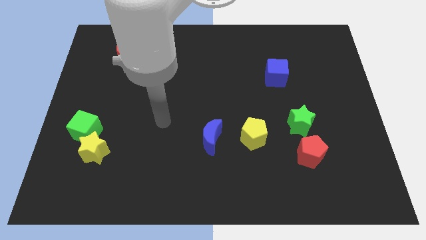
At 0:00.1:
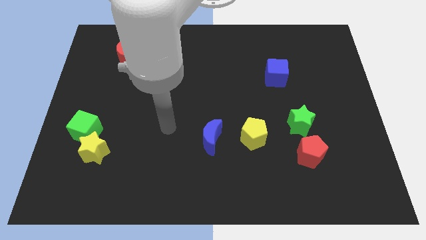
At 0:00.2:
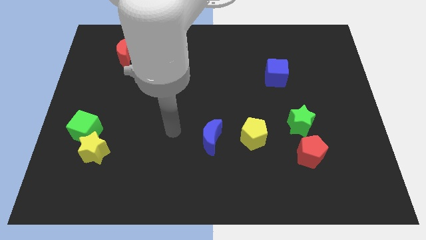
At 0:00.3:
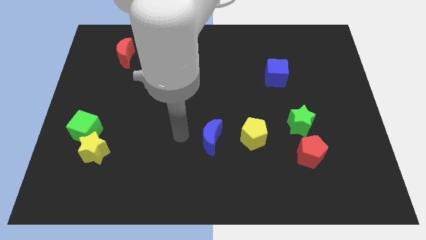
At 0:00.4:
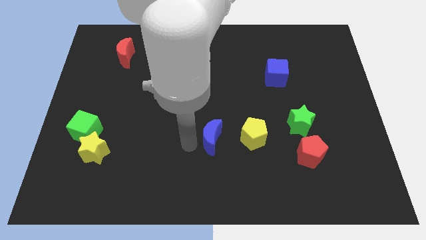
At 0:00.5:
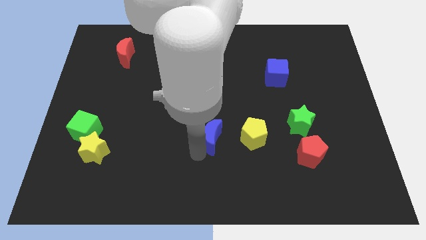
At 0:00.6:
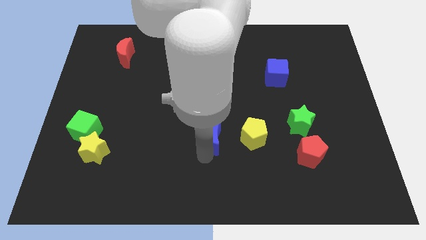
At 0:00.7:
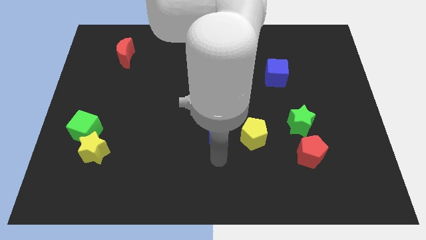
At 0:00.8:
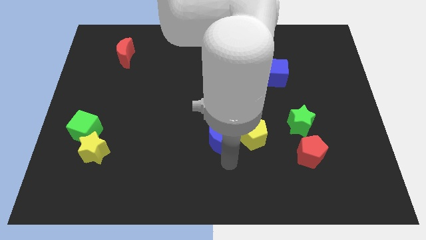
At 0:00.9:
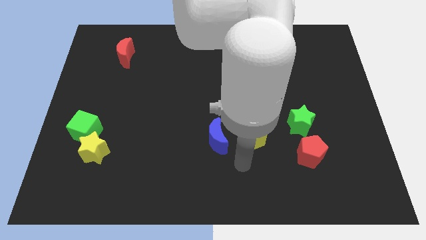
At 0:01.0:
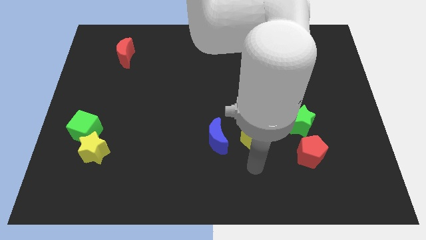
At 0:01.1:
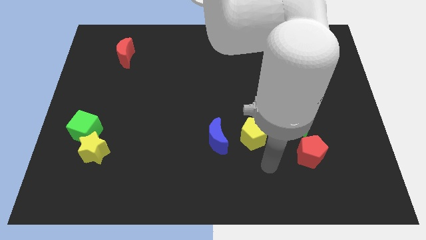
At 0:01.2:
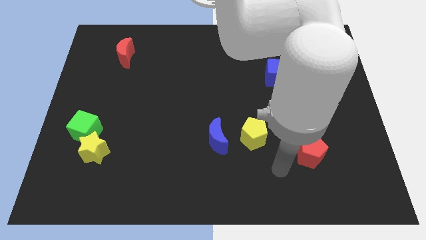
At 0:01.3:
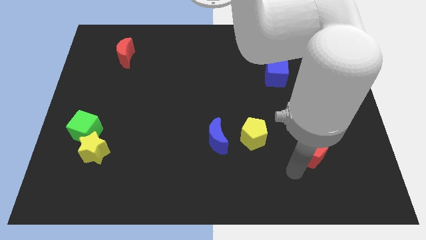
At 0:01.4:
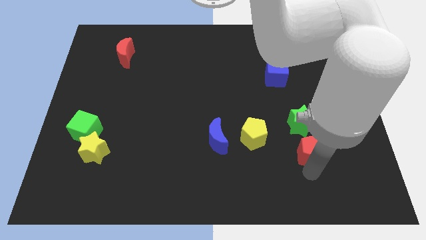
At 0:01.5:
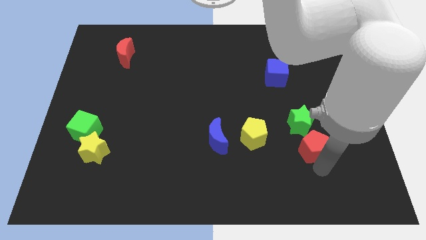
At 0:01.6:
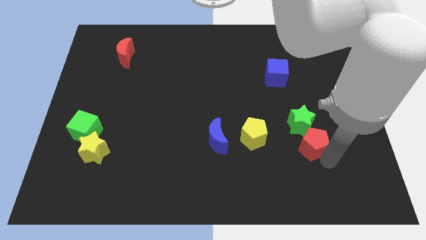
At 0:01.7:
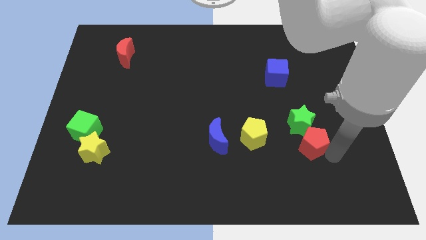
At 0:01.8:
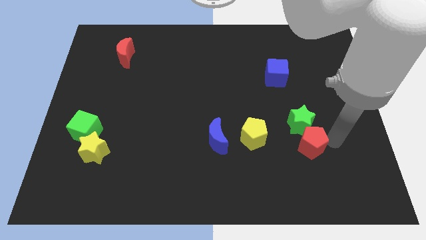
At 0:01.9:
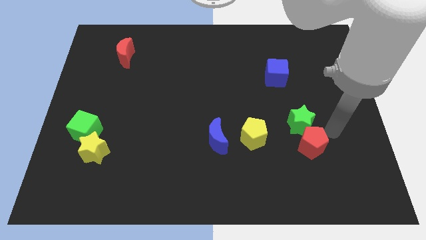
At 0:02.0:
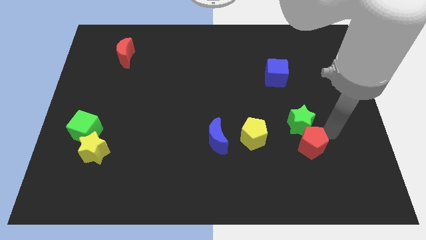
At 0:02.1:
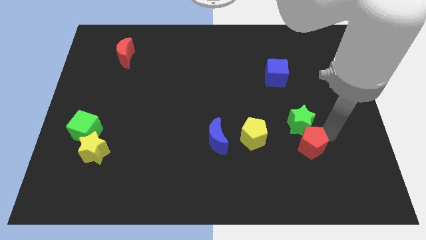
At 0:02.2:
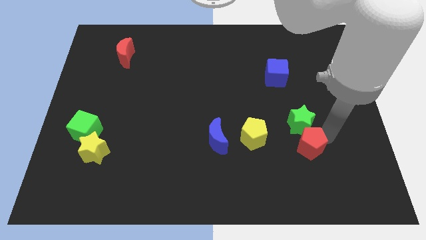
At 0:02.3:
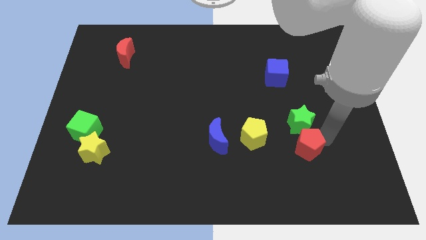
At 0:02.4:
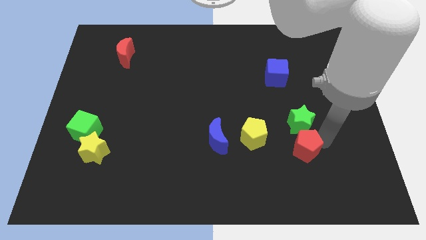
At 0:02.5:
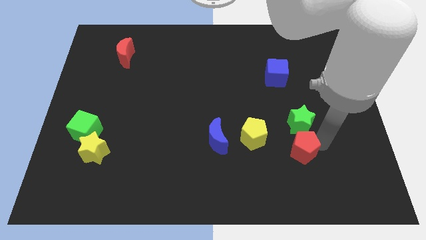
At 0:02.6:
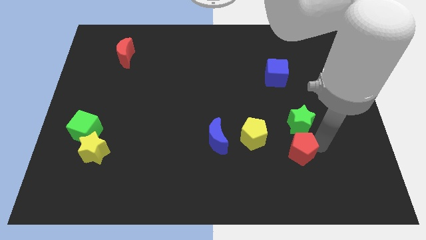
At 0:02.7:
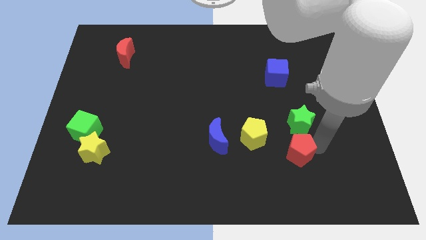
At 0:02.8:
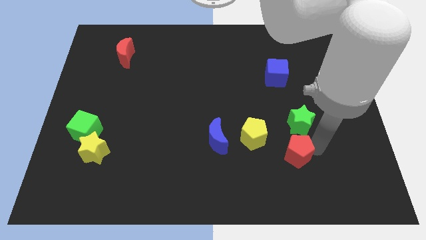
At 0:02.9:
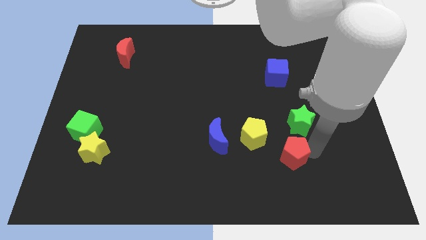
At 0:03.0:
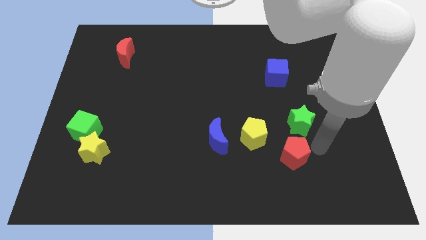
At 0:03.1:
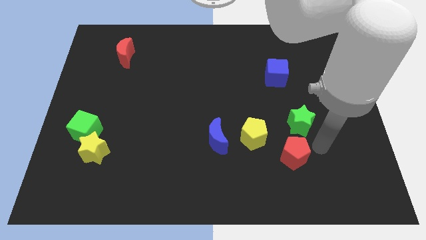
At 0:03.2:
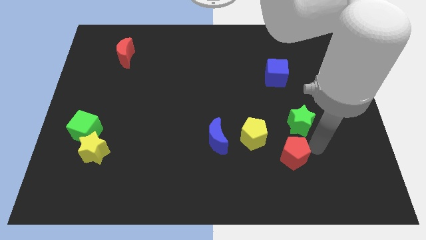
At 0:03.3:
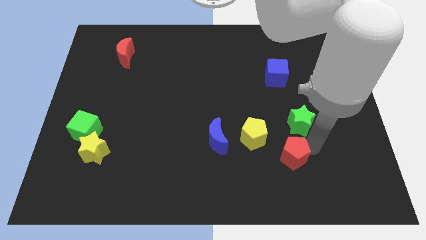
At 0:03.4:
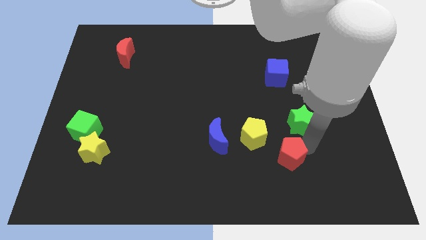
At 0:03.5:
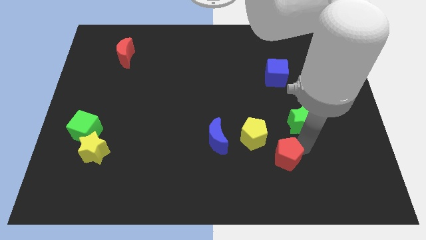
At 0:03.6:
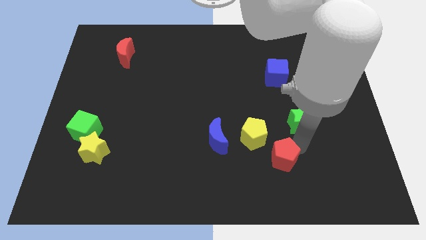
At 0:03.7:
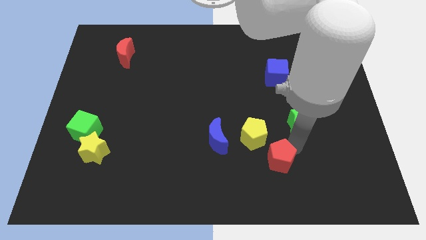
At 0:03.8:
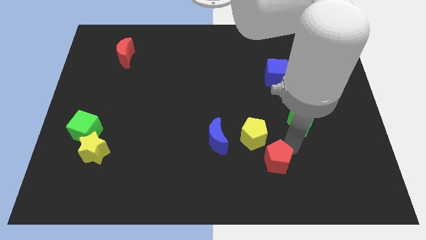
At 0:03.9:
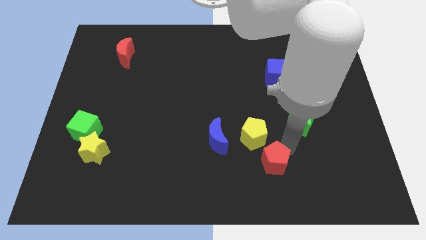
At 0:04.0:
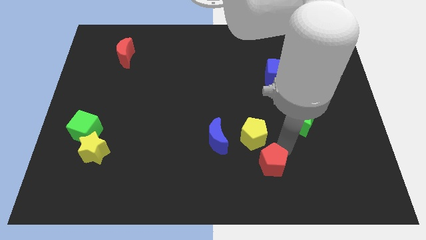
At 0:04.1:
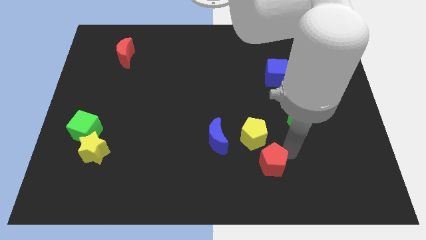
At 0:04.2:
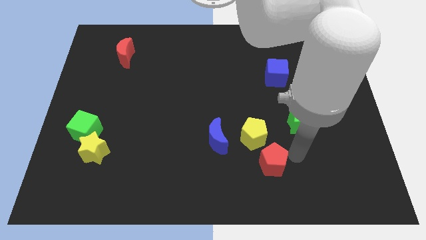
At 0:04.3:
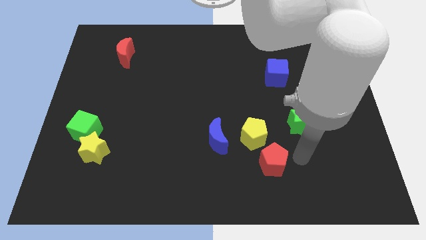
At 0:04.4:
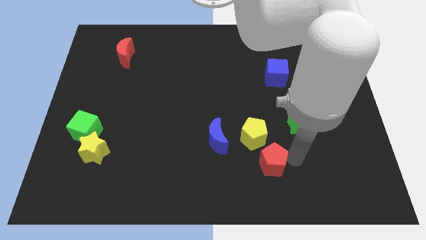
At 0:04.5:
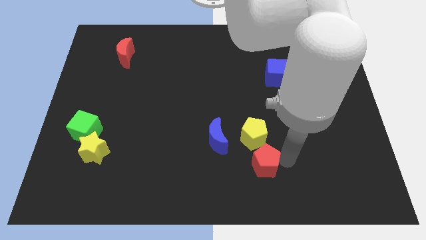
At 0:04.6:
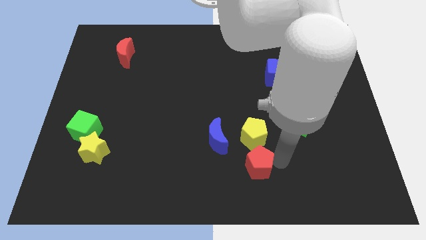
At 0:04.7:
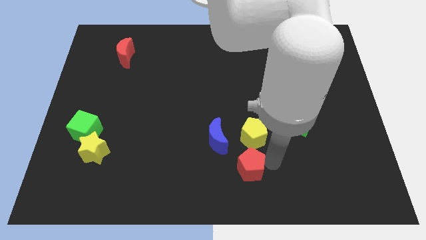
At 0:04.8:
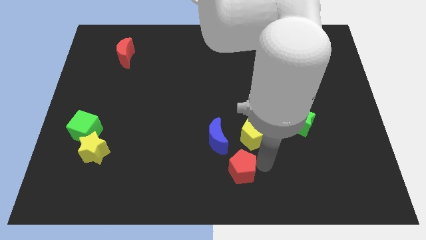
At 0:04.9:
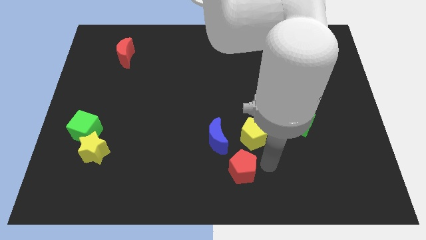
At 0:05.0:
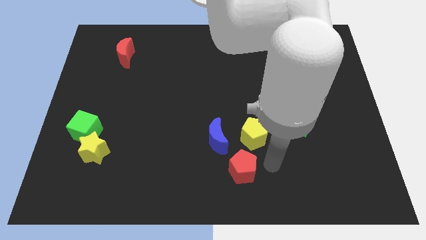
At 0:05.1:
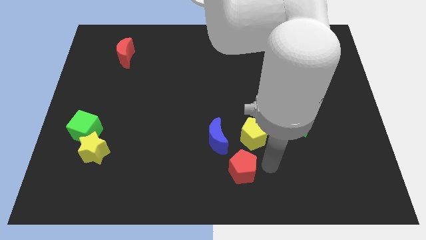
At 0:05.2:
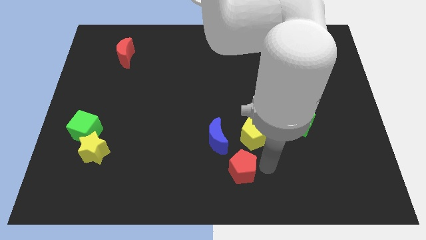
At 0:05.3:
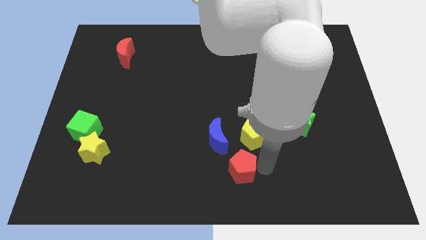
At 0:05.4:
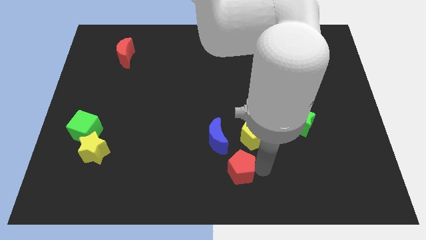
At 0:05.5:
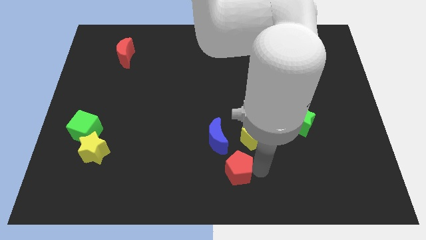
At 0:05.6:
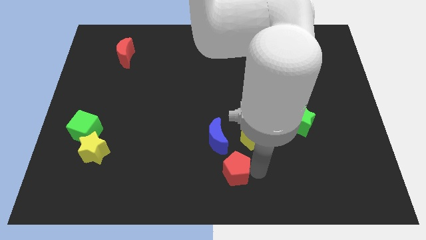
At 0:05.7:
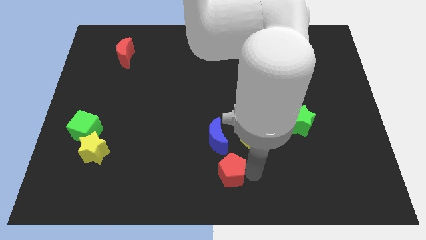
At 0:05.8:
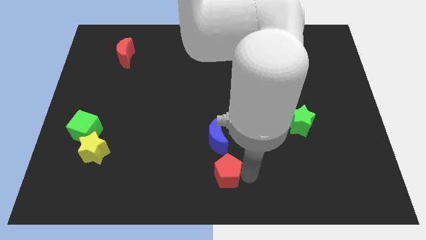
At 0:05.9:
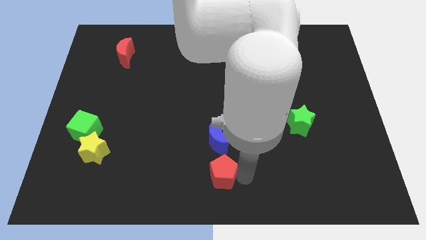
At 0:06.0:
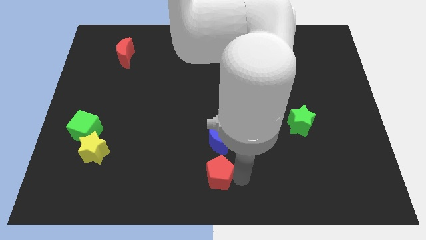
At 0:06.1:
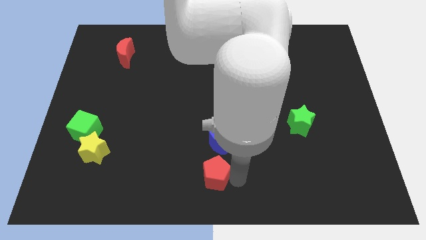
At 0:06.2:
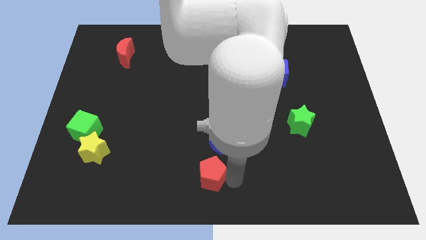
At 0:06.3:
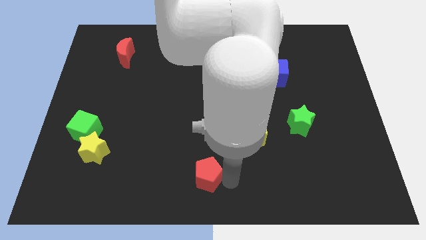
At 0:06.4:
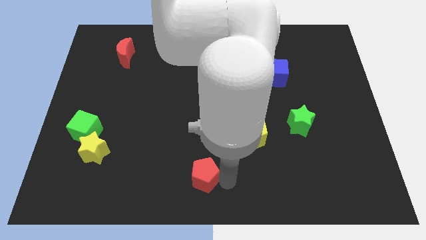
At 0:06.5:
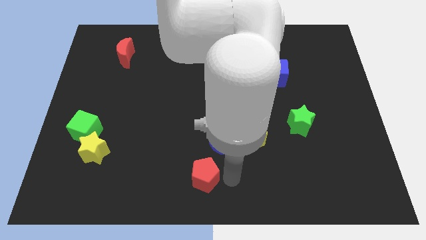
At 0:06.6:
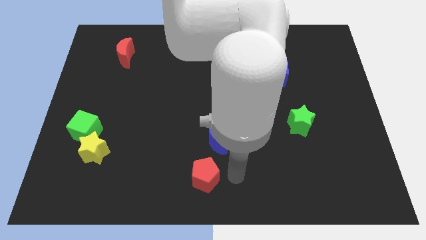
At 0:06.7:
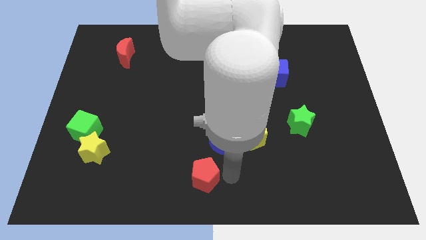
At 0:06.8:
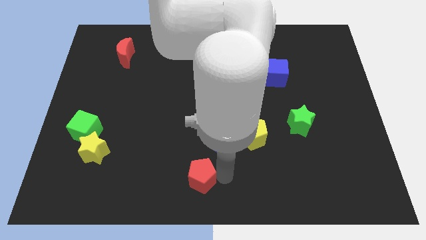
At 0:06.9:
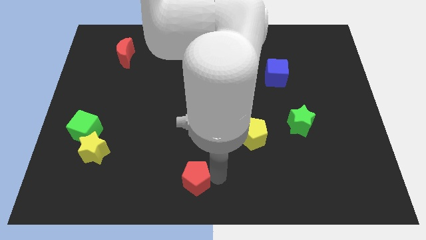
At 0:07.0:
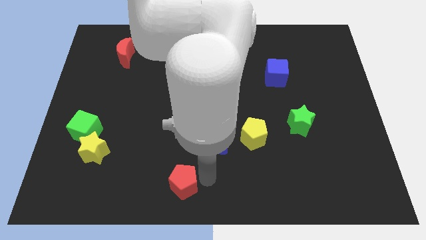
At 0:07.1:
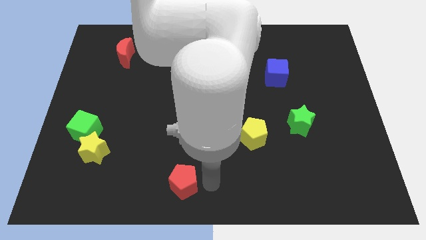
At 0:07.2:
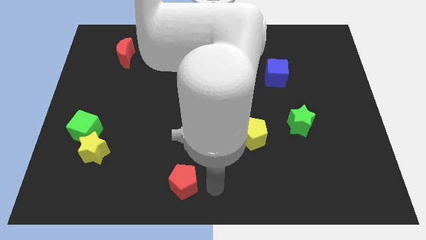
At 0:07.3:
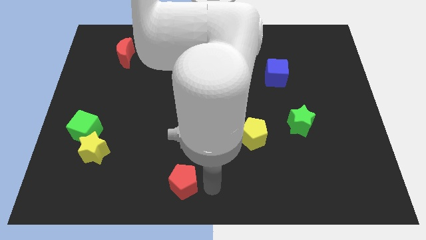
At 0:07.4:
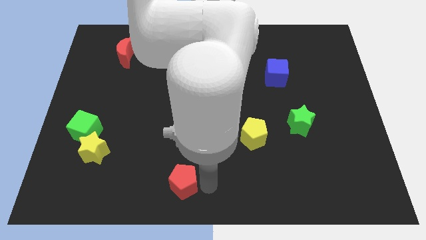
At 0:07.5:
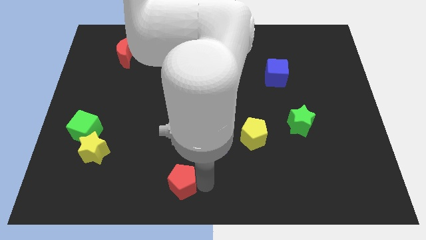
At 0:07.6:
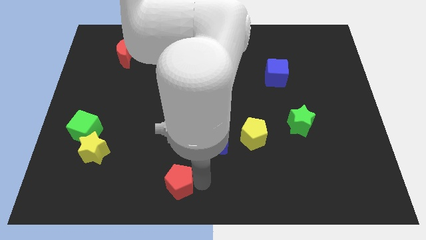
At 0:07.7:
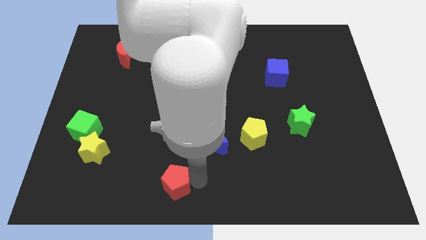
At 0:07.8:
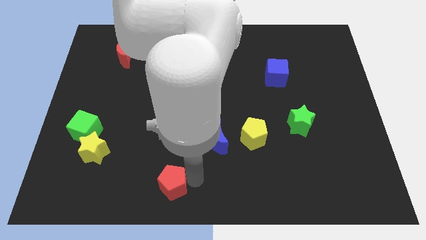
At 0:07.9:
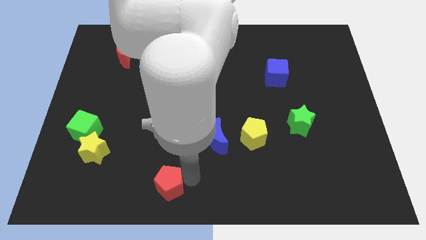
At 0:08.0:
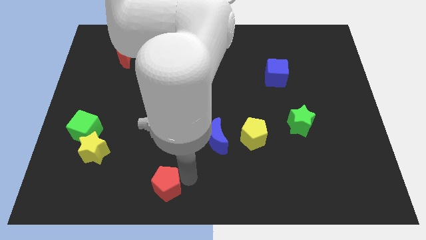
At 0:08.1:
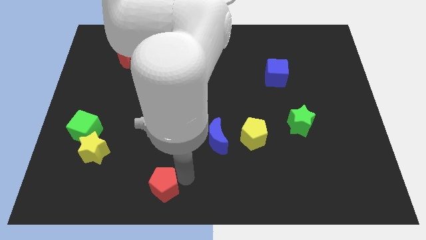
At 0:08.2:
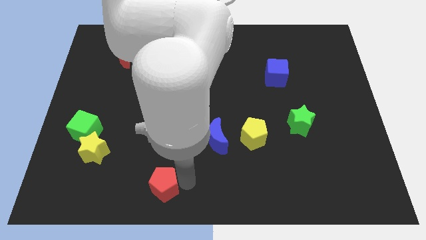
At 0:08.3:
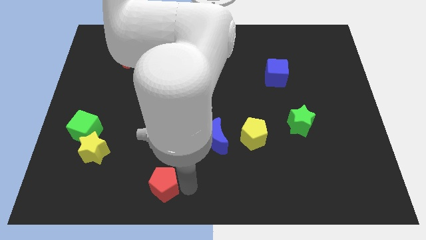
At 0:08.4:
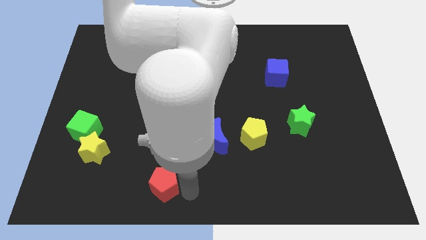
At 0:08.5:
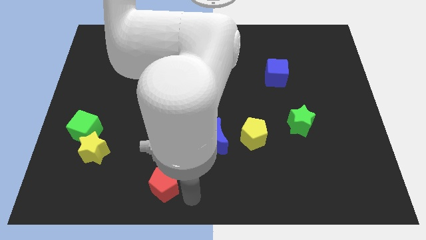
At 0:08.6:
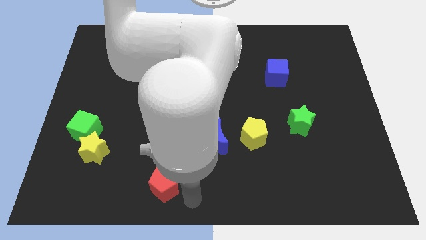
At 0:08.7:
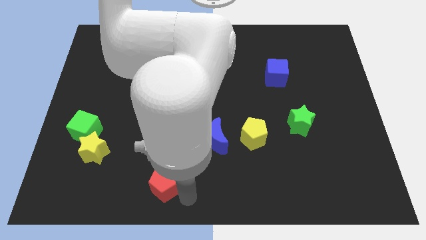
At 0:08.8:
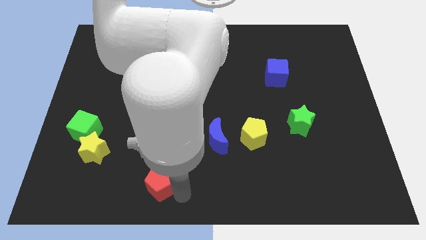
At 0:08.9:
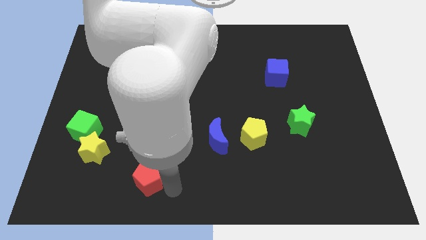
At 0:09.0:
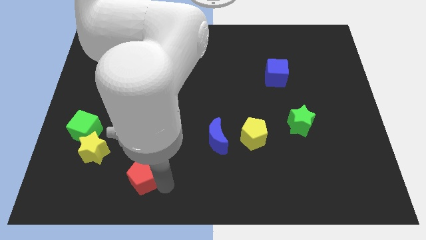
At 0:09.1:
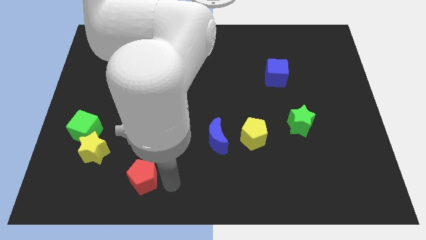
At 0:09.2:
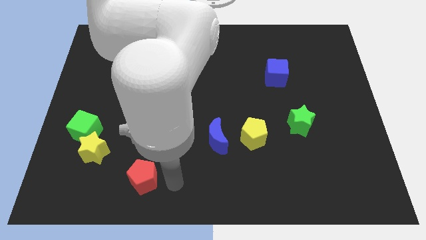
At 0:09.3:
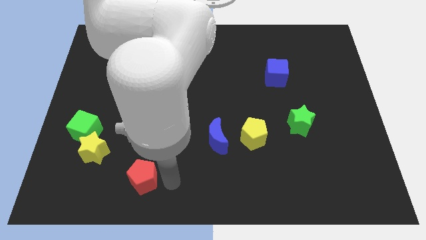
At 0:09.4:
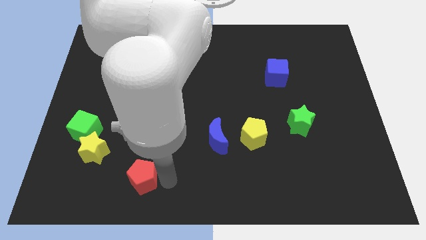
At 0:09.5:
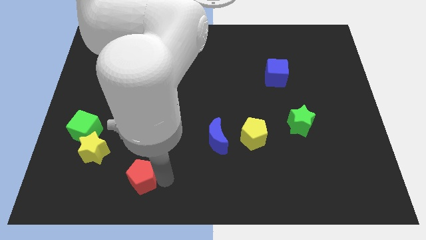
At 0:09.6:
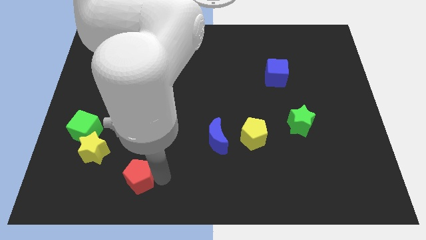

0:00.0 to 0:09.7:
push the red pentagon diagonally down and to the right of the yellow star
